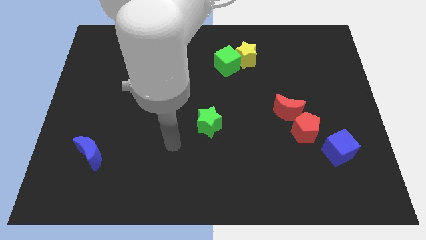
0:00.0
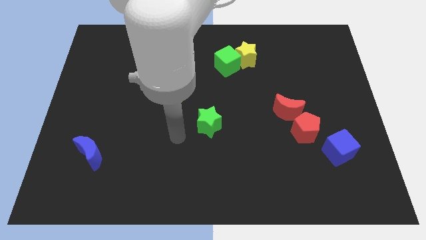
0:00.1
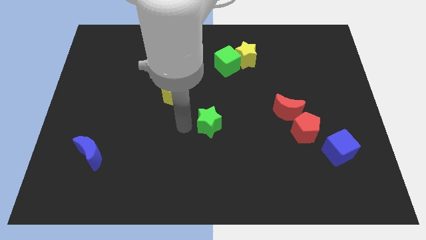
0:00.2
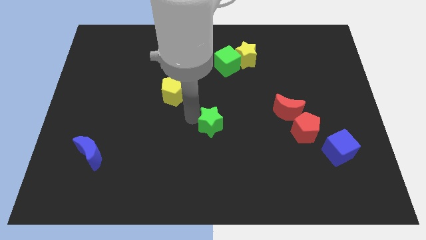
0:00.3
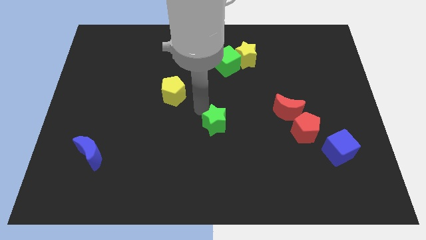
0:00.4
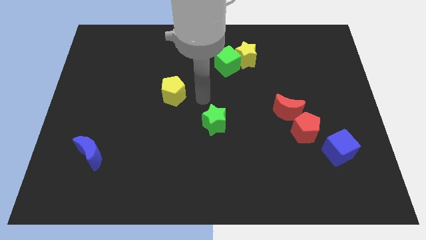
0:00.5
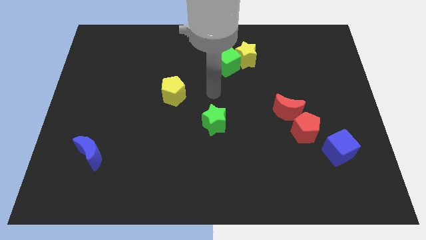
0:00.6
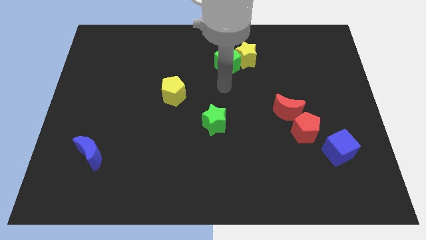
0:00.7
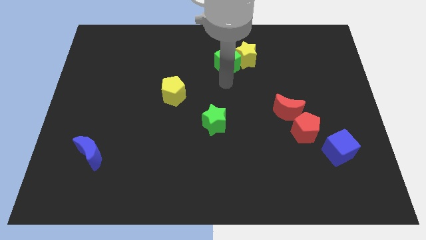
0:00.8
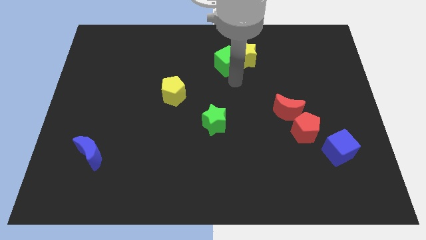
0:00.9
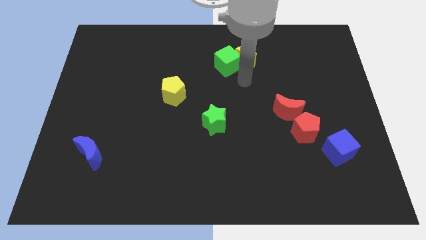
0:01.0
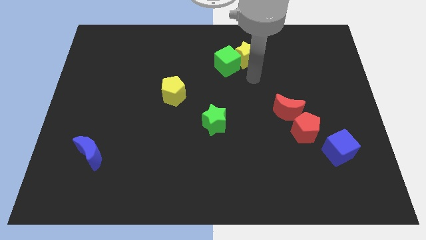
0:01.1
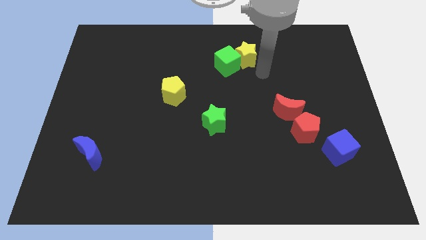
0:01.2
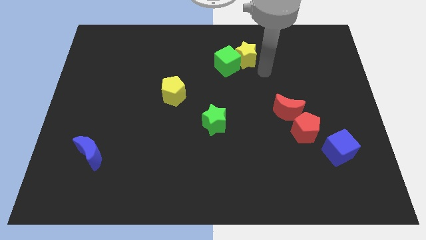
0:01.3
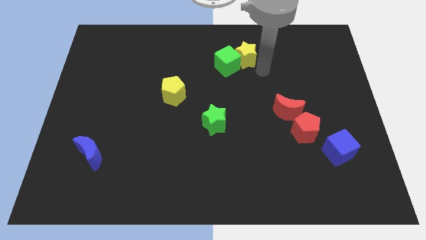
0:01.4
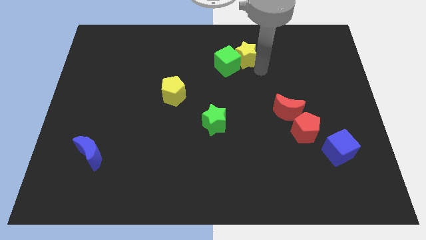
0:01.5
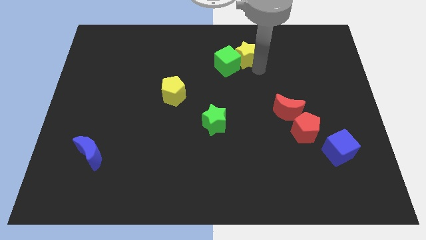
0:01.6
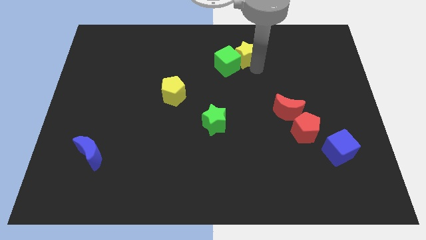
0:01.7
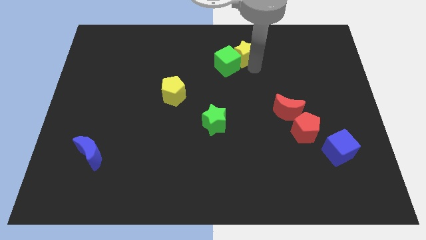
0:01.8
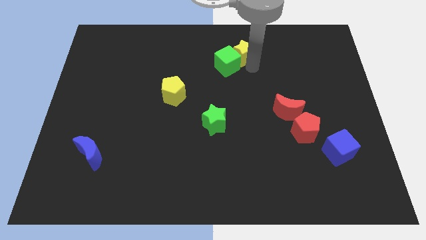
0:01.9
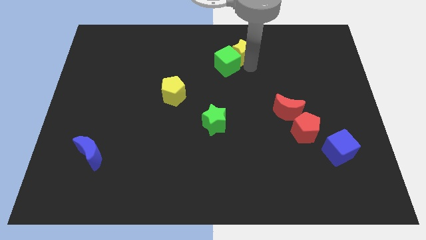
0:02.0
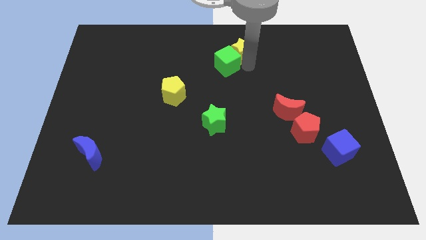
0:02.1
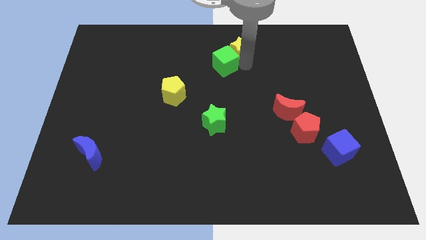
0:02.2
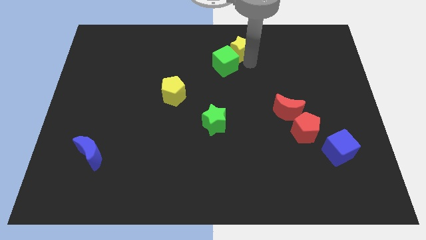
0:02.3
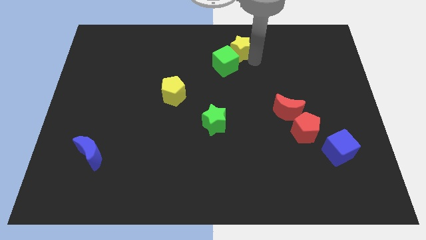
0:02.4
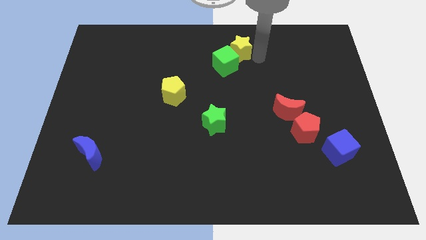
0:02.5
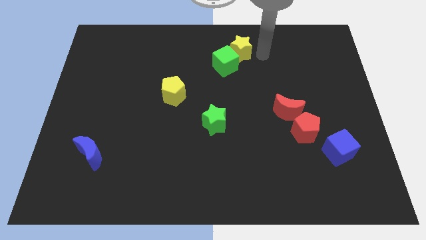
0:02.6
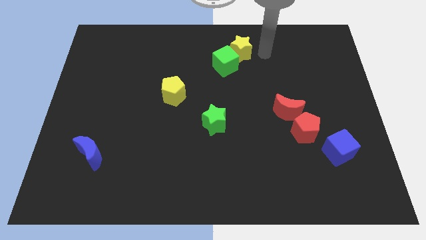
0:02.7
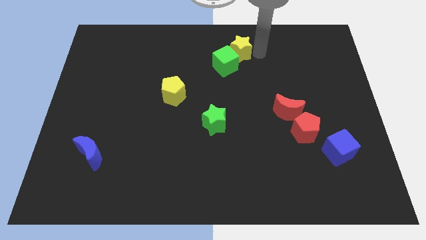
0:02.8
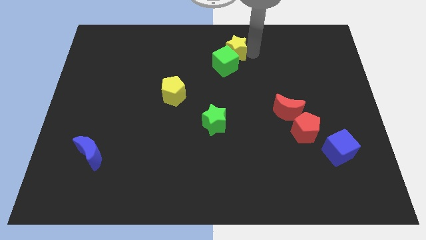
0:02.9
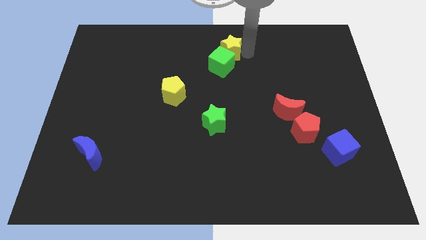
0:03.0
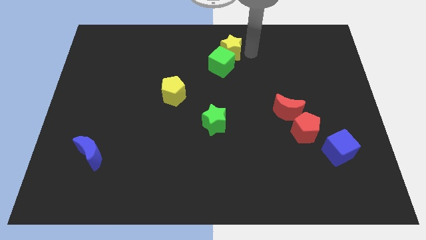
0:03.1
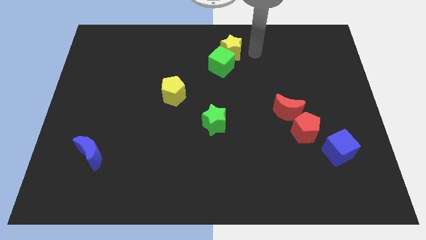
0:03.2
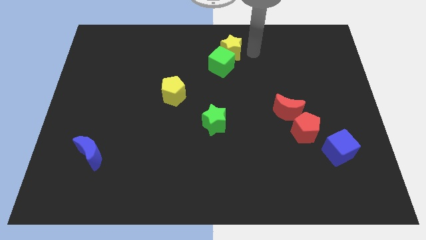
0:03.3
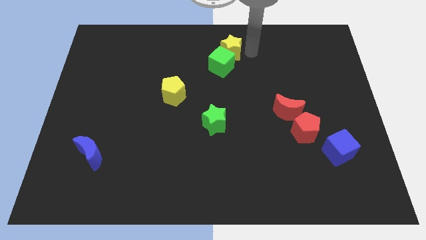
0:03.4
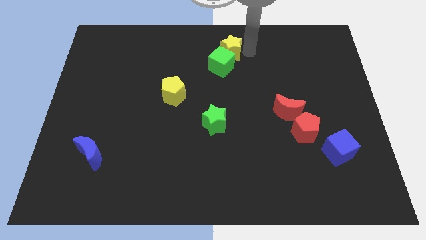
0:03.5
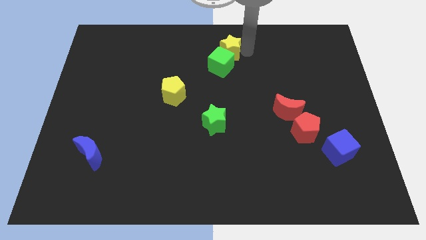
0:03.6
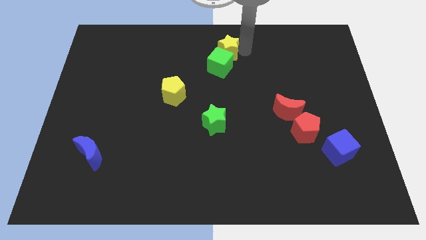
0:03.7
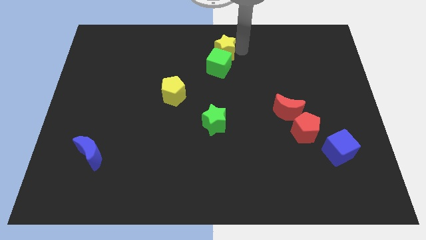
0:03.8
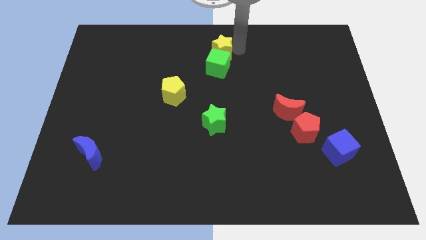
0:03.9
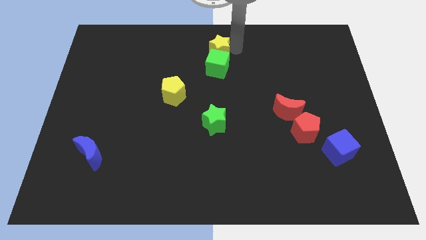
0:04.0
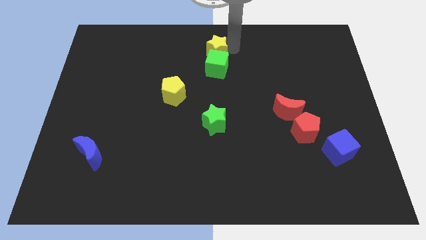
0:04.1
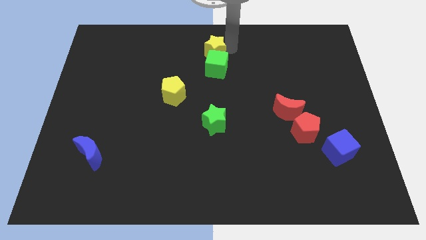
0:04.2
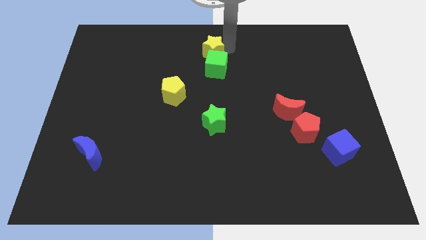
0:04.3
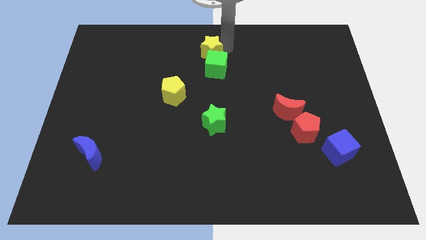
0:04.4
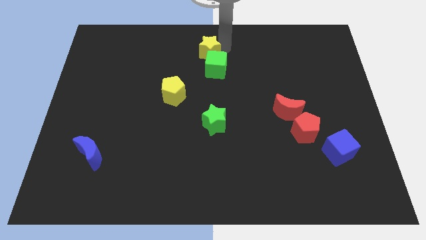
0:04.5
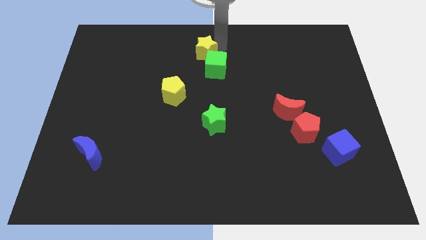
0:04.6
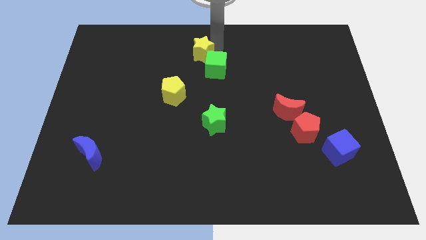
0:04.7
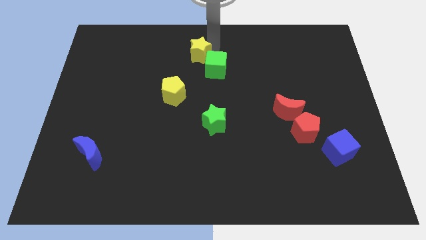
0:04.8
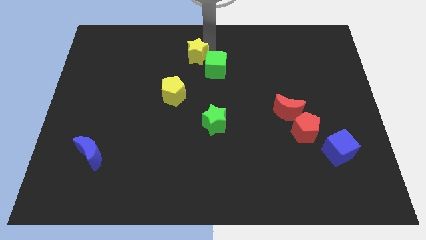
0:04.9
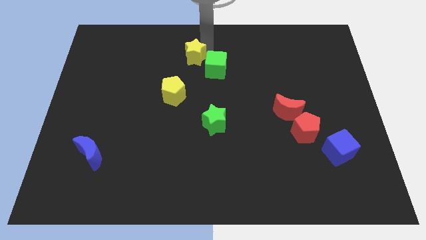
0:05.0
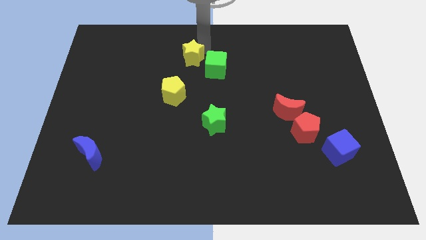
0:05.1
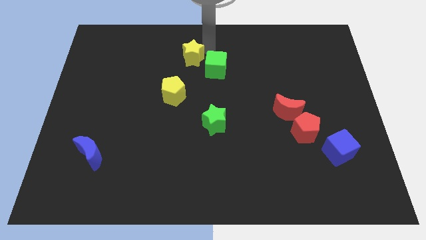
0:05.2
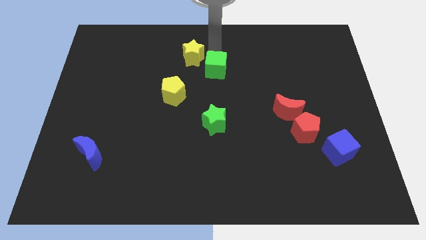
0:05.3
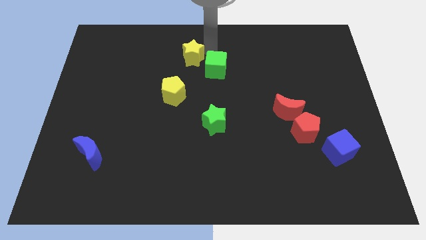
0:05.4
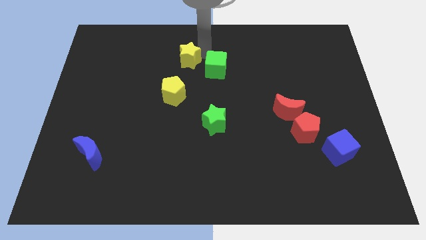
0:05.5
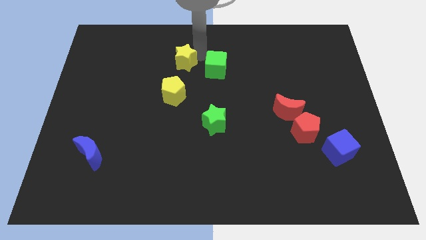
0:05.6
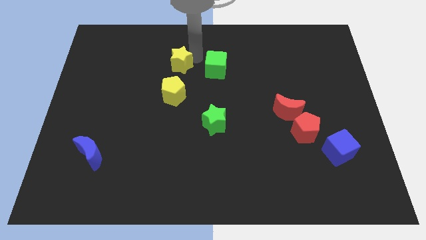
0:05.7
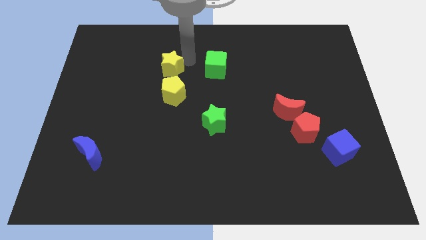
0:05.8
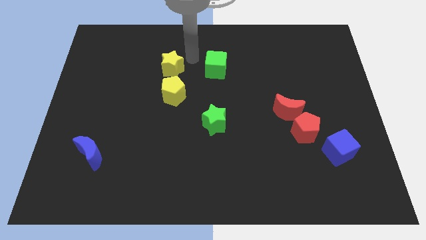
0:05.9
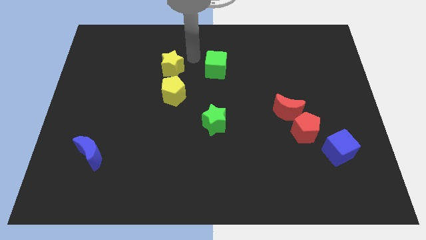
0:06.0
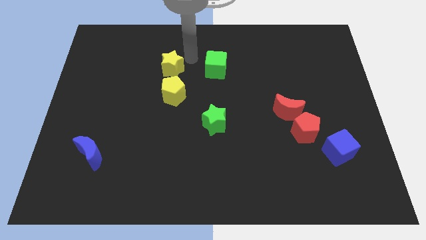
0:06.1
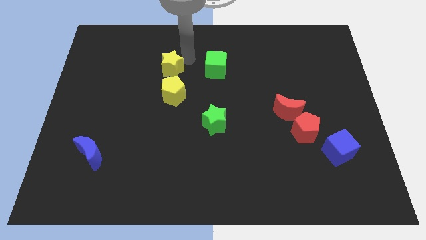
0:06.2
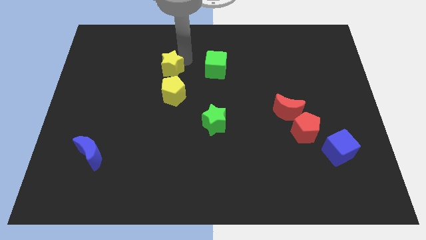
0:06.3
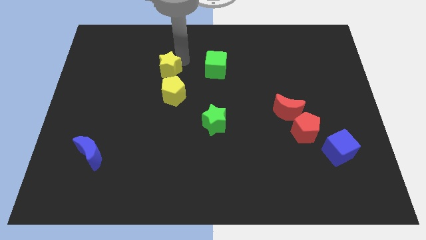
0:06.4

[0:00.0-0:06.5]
push the yellow star diagonally up and to the left of the yellow pentagon
